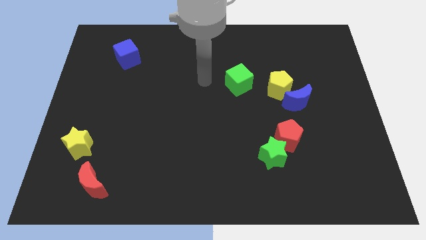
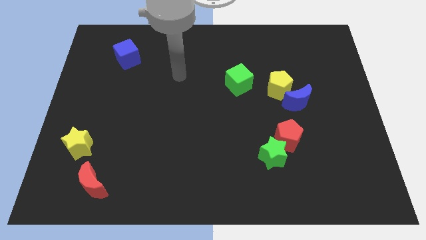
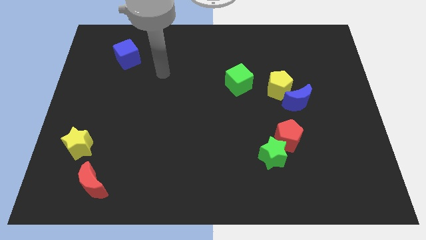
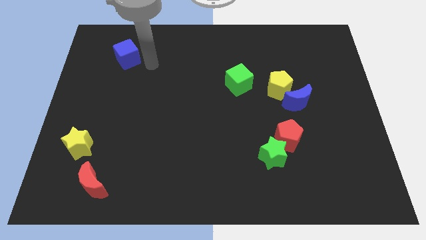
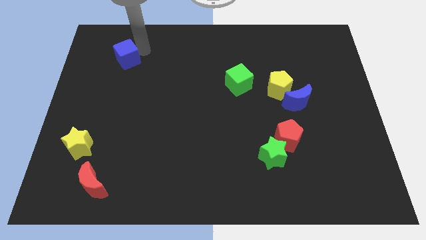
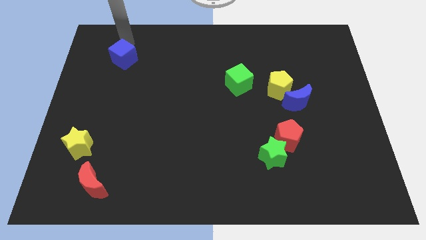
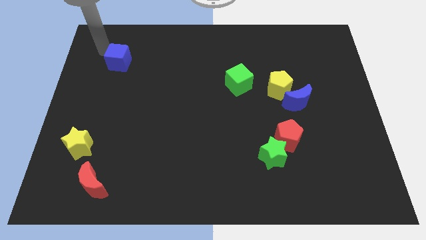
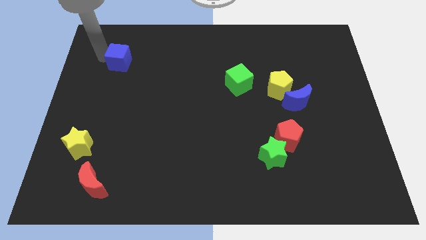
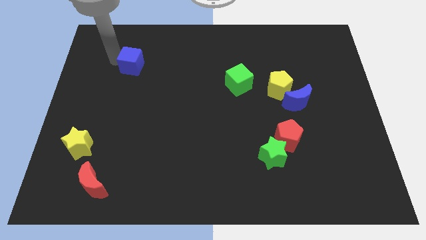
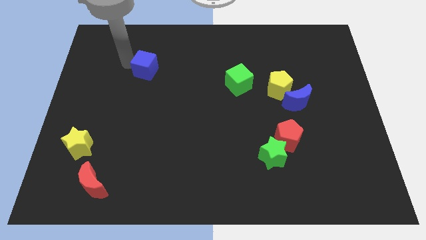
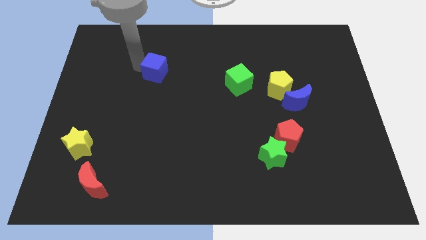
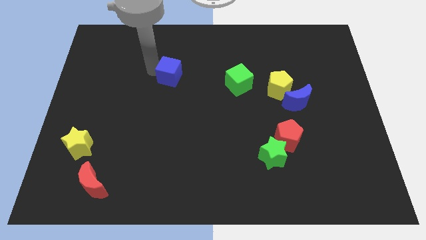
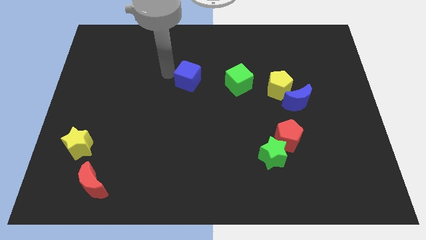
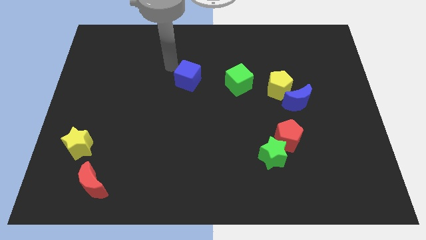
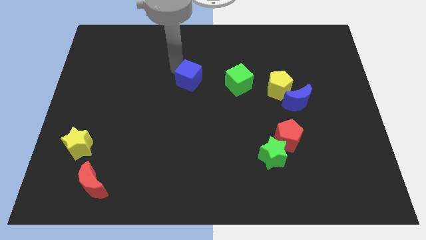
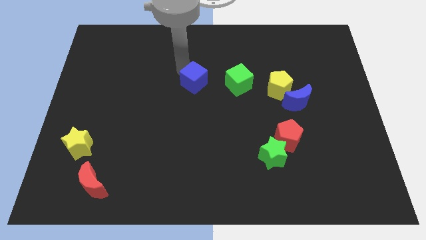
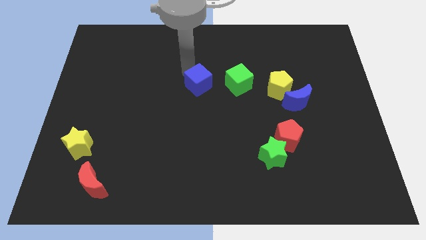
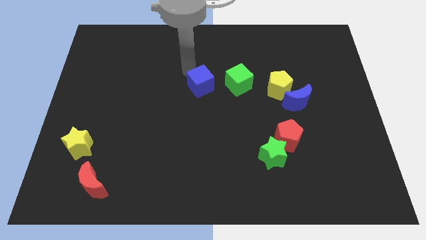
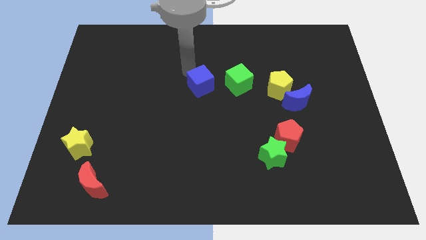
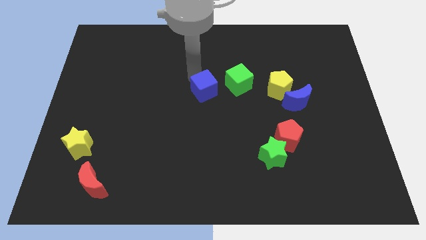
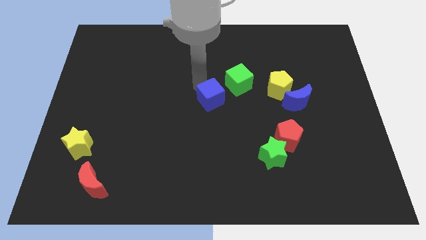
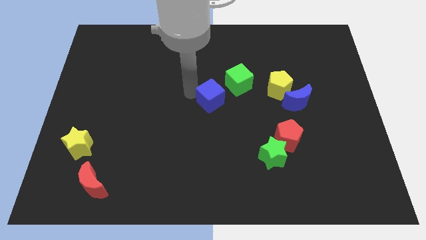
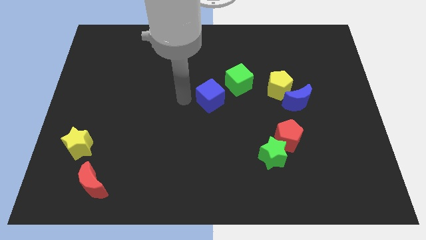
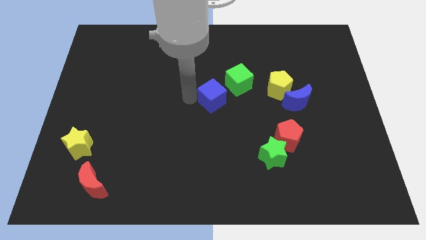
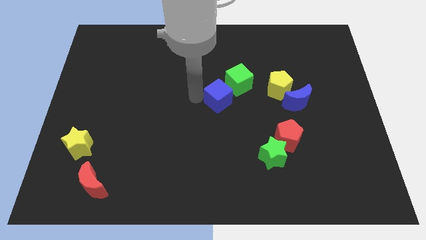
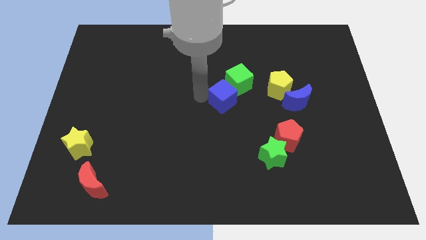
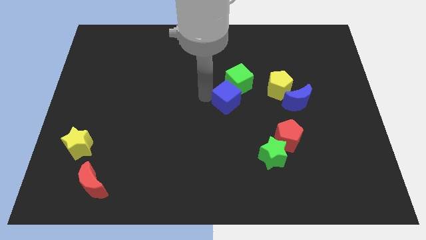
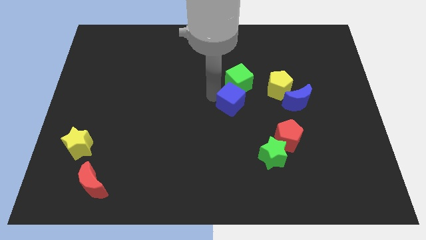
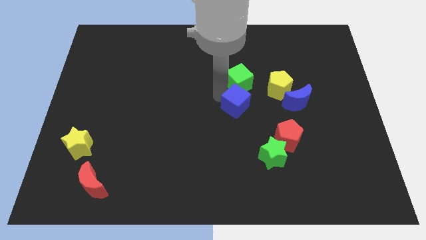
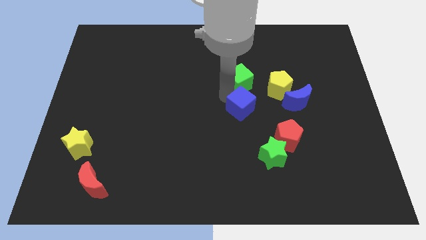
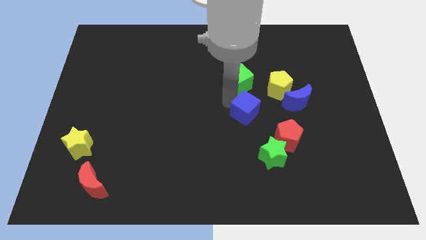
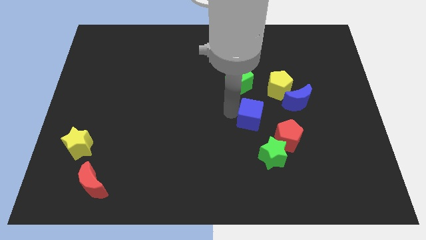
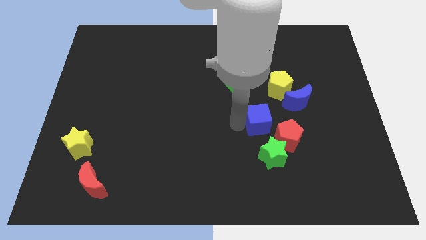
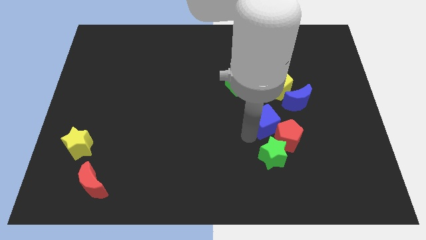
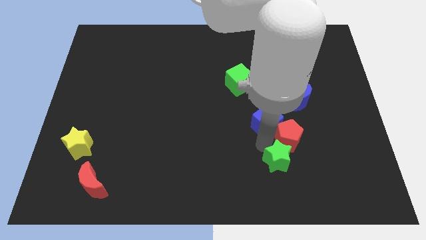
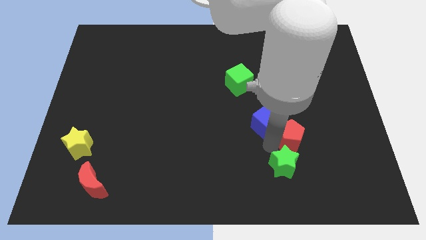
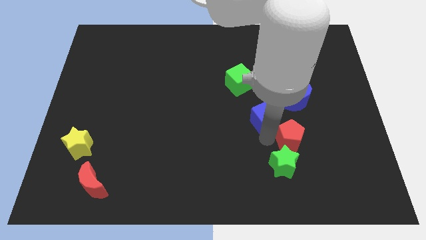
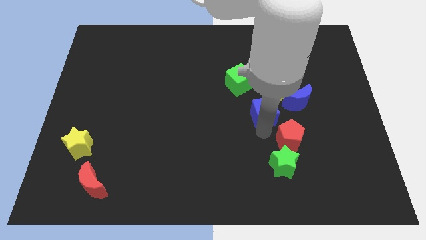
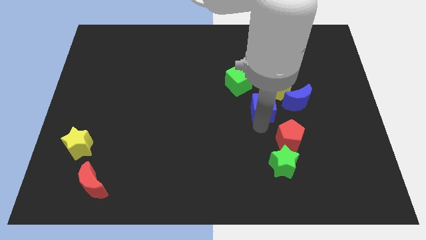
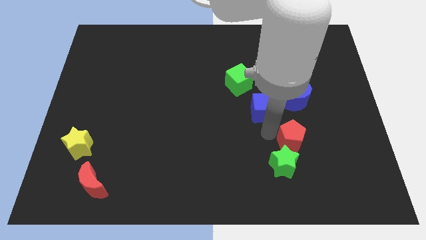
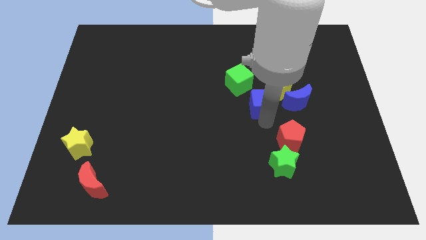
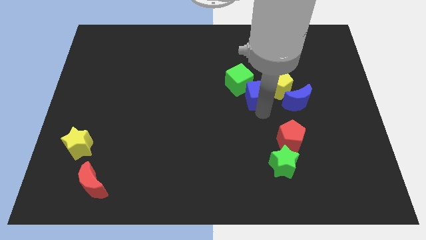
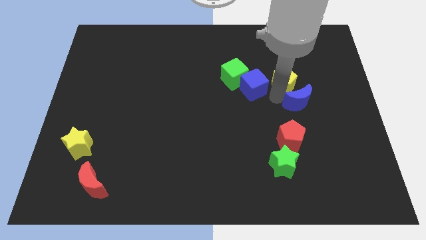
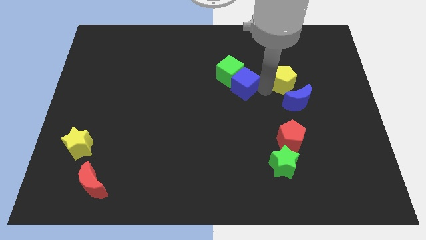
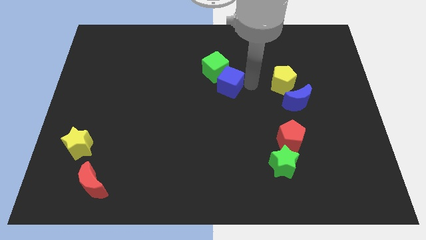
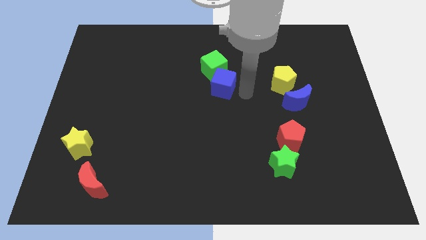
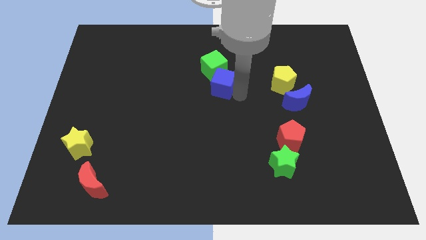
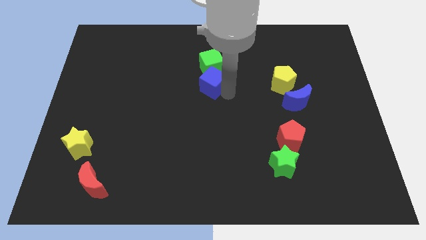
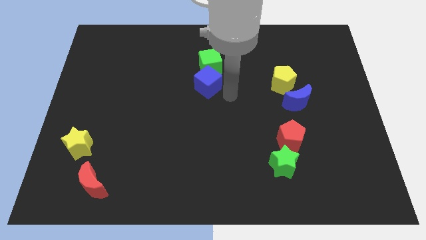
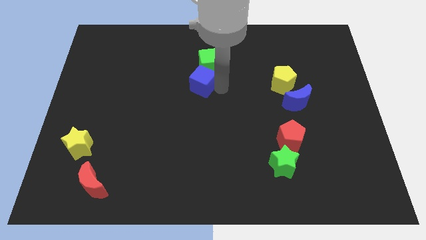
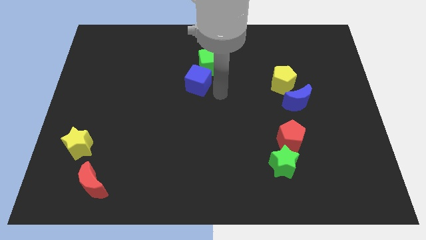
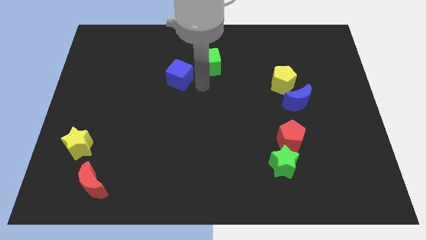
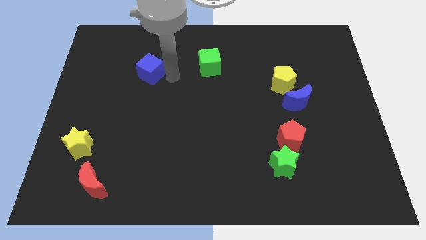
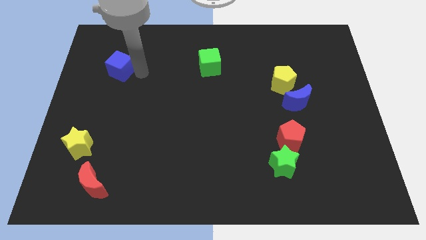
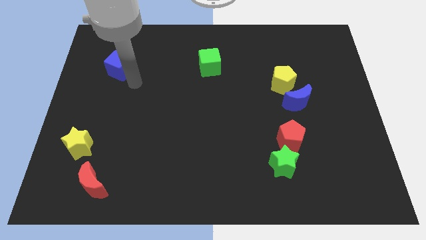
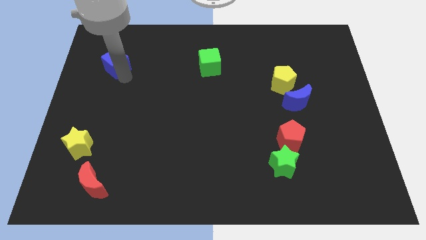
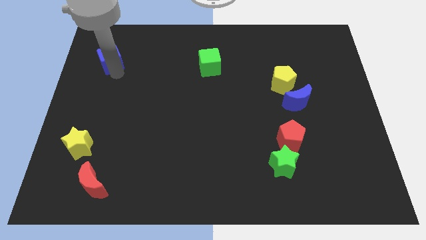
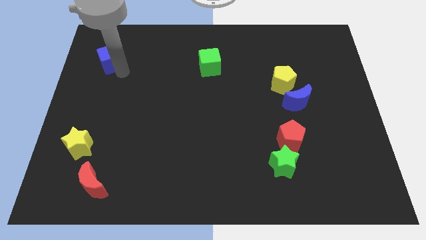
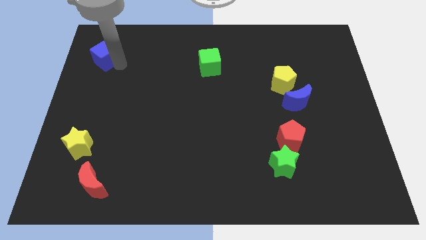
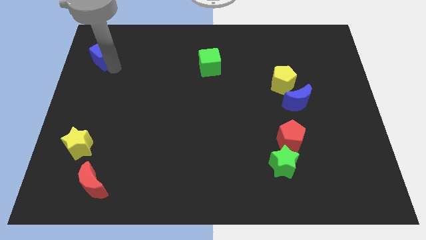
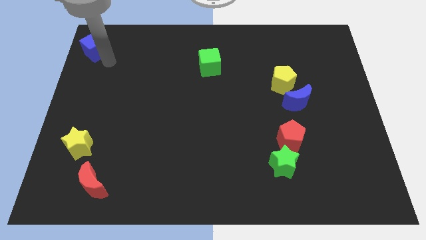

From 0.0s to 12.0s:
put the blue cube to the top left of the board

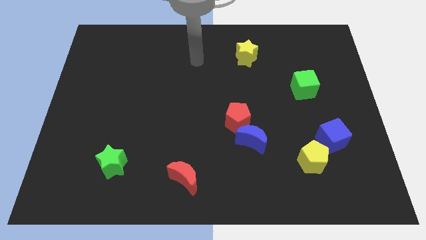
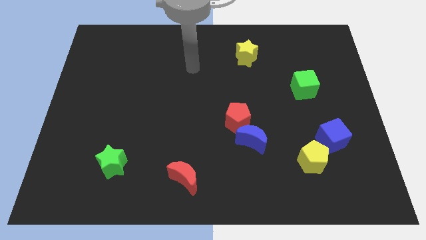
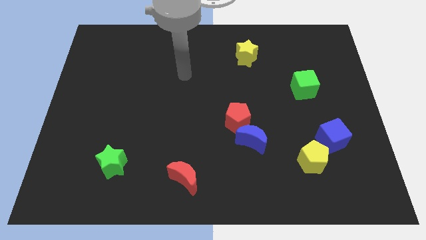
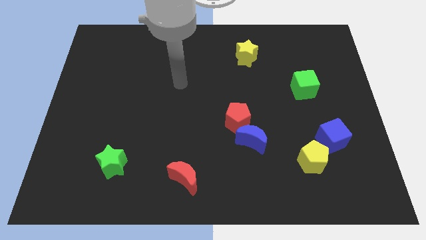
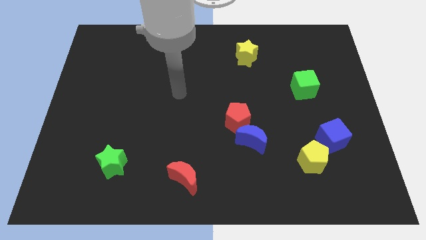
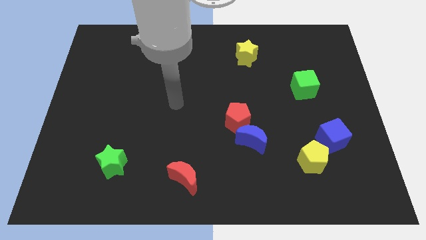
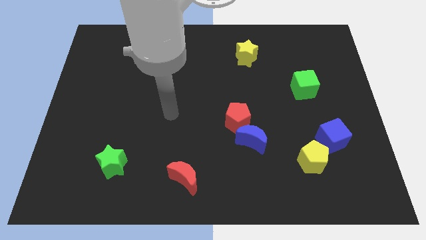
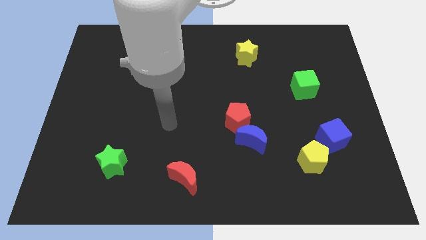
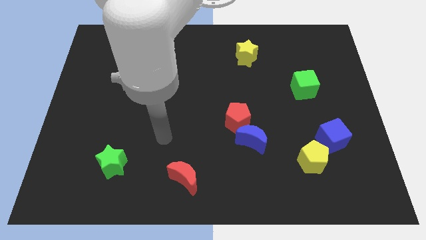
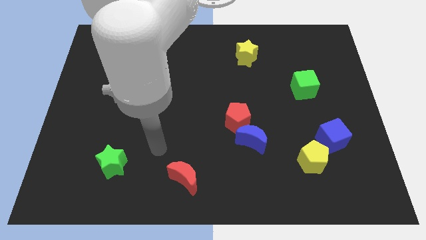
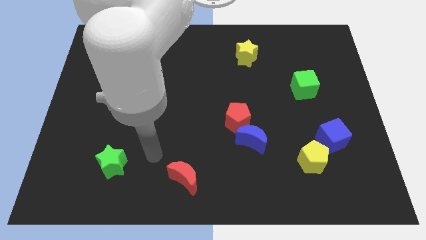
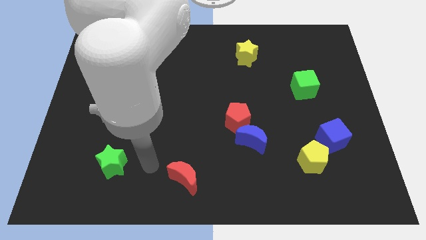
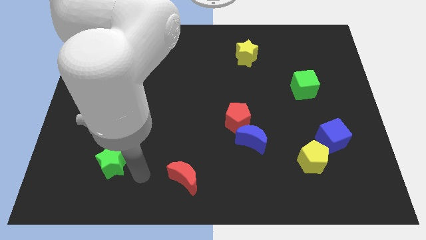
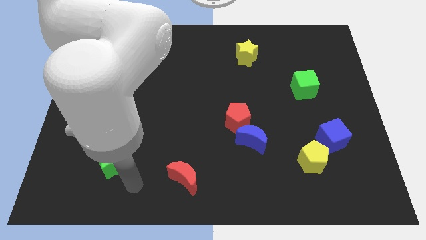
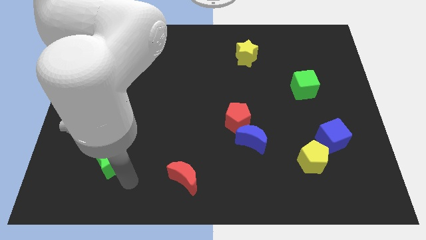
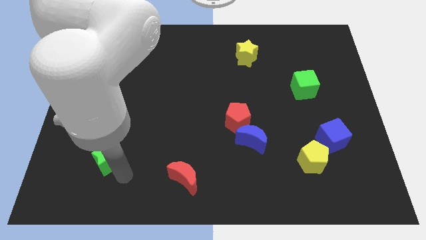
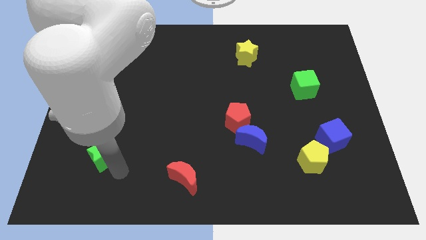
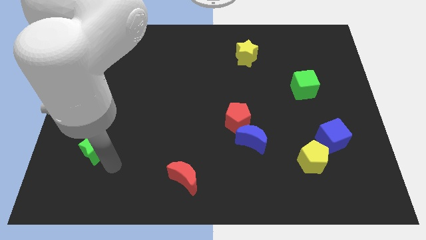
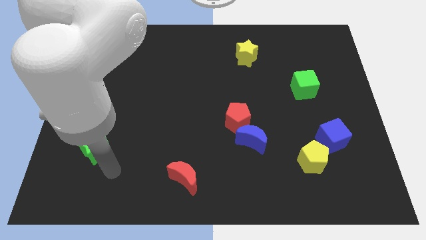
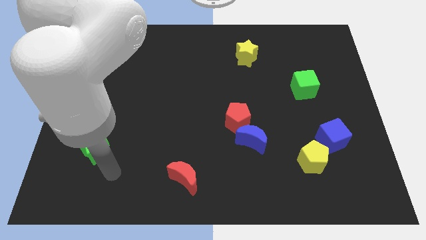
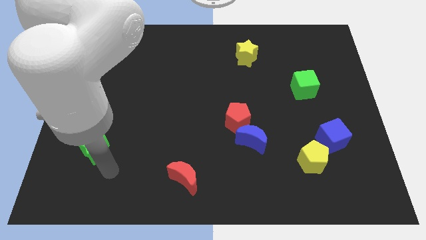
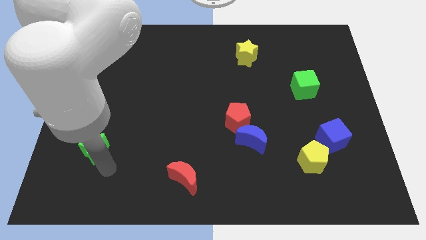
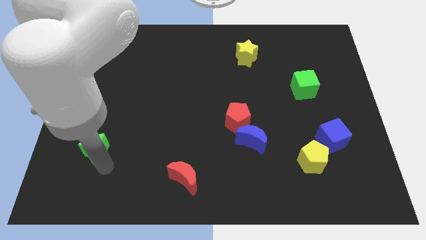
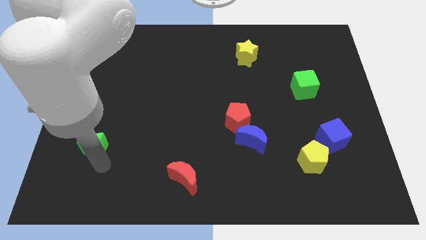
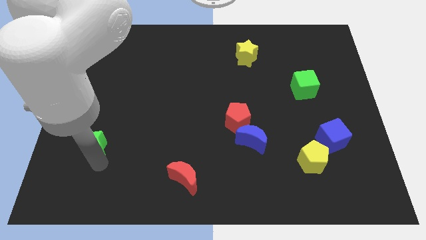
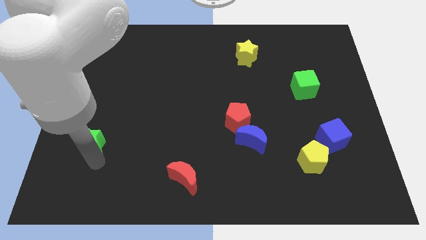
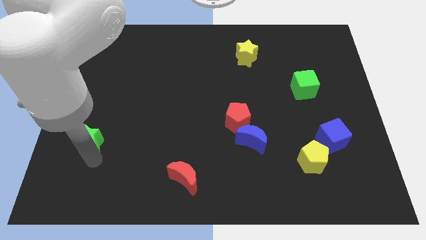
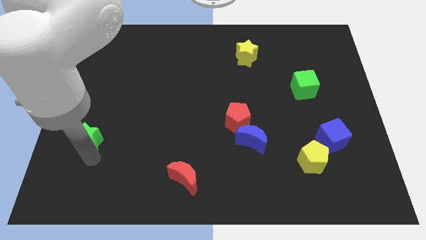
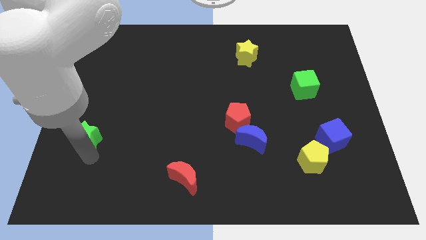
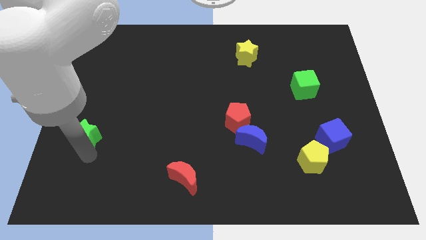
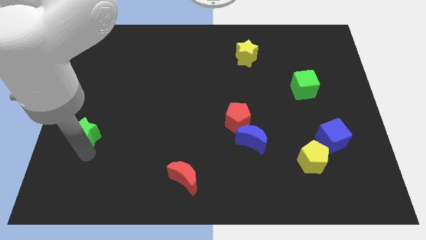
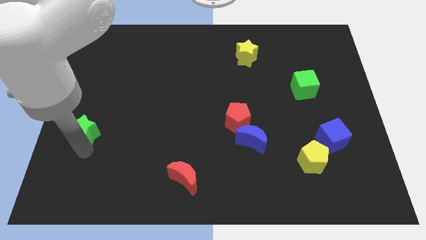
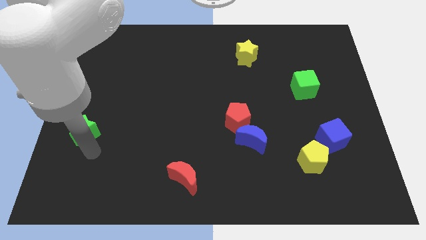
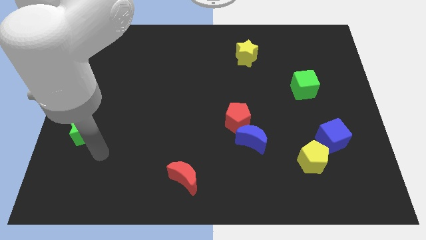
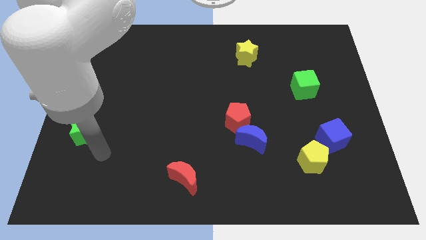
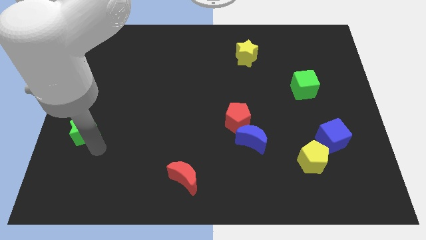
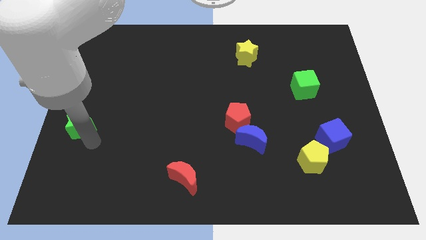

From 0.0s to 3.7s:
move the green star to the left side
